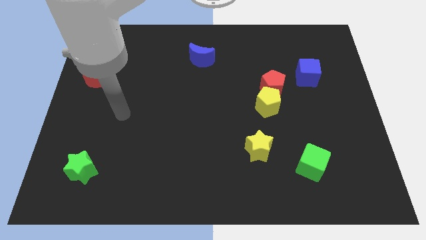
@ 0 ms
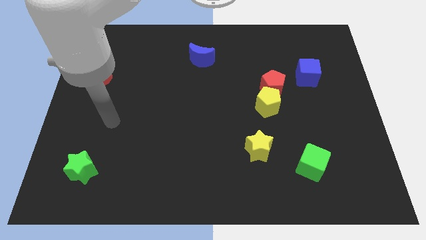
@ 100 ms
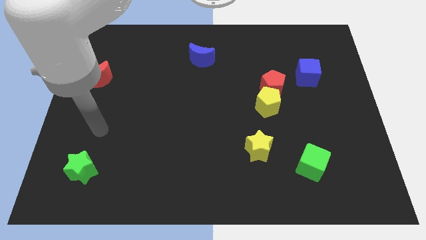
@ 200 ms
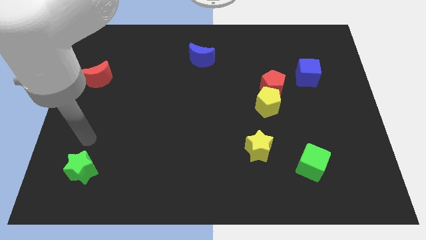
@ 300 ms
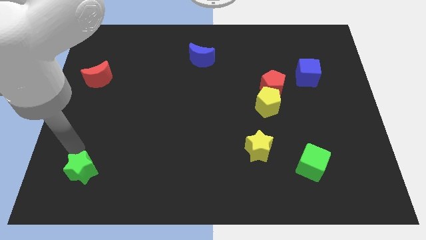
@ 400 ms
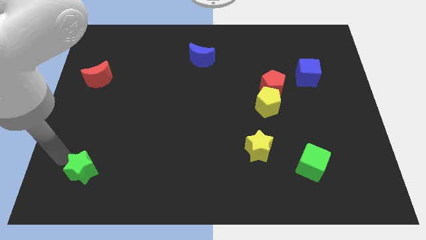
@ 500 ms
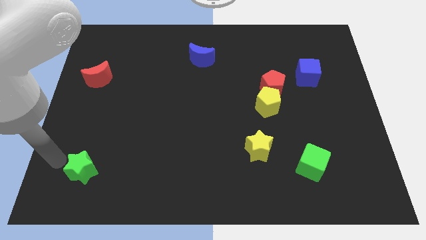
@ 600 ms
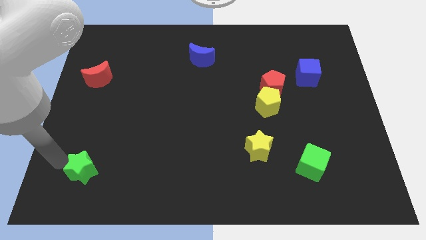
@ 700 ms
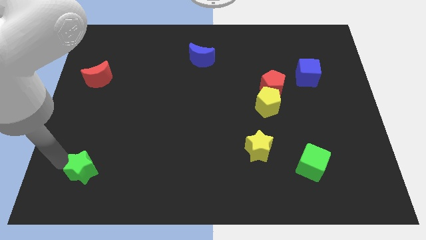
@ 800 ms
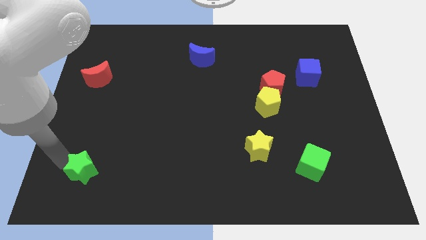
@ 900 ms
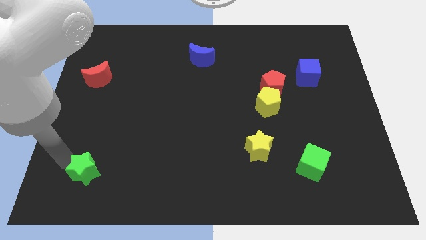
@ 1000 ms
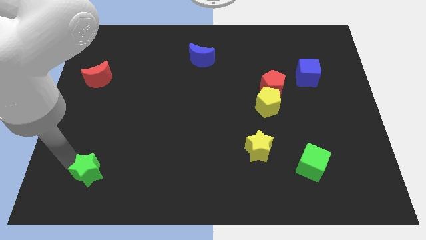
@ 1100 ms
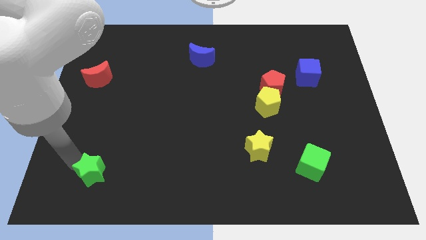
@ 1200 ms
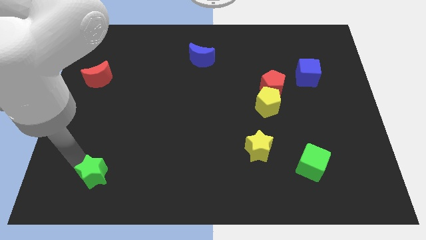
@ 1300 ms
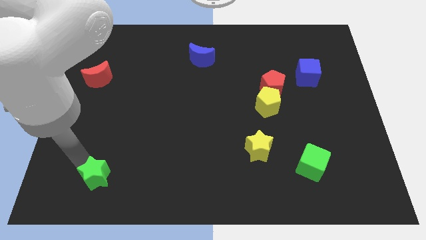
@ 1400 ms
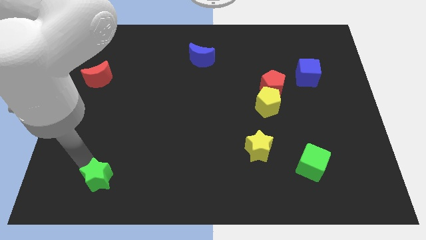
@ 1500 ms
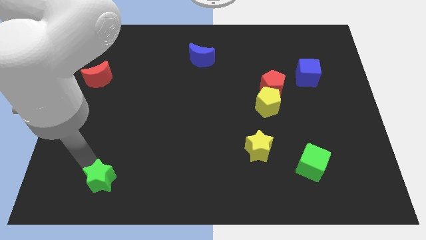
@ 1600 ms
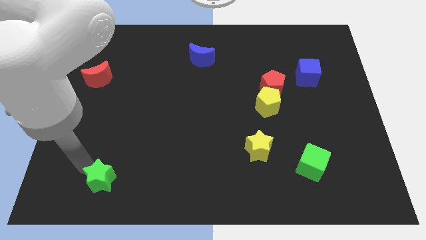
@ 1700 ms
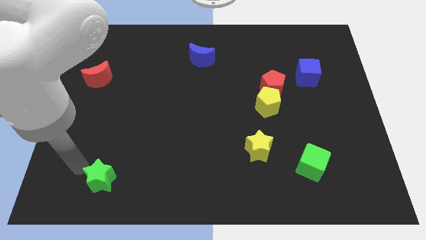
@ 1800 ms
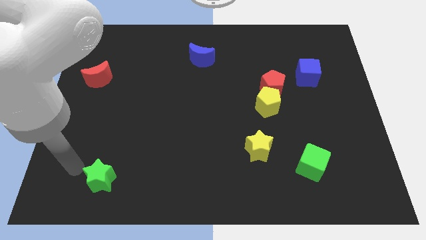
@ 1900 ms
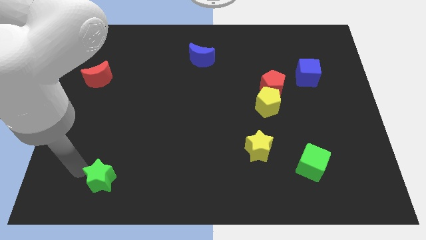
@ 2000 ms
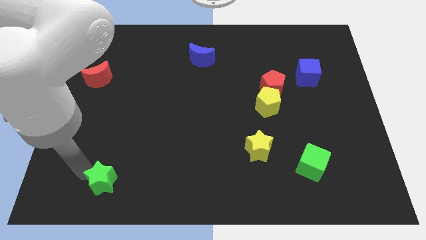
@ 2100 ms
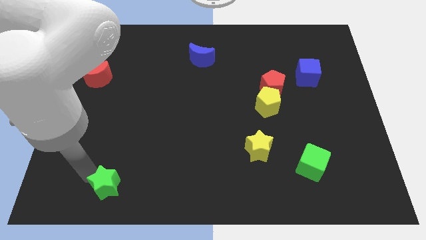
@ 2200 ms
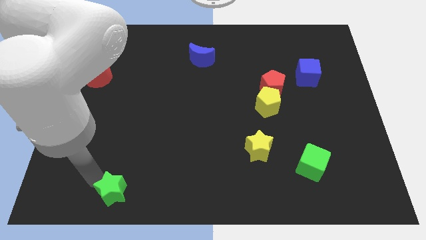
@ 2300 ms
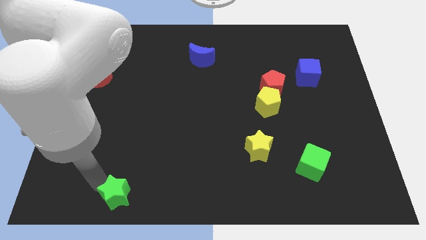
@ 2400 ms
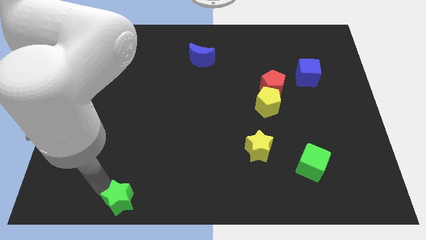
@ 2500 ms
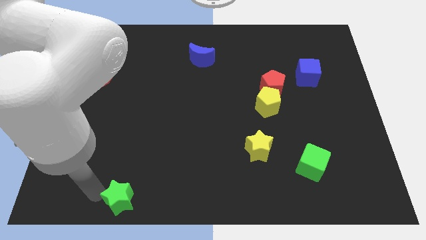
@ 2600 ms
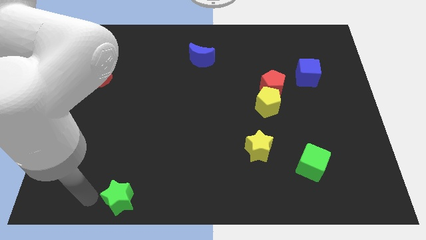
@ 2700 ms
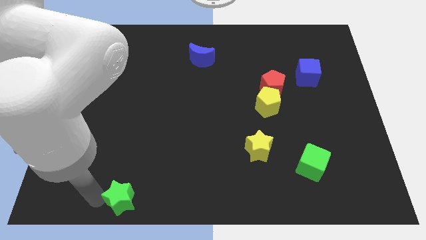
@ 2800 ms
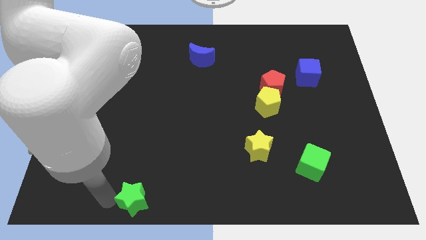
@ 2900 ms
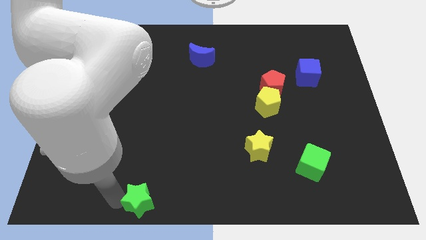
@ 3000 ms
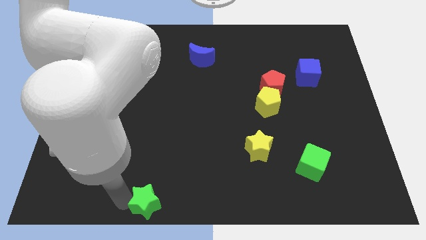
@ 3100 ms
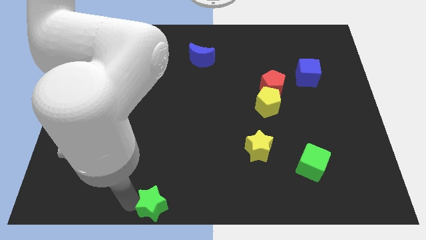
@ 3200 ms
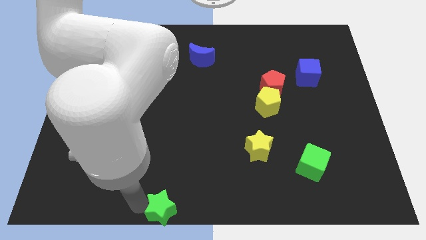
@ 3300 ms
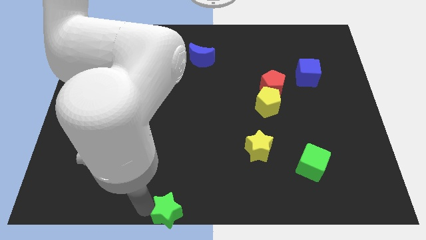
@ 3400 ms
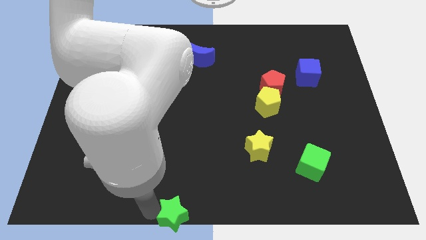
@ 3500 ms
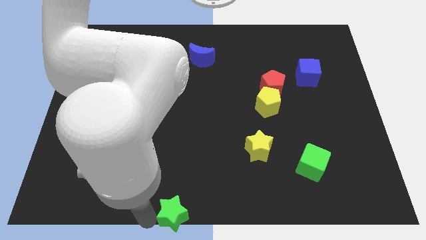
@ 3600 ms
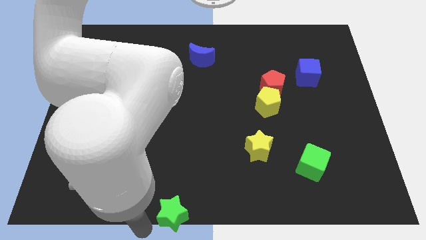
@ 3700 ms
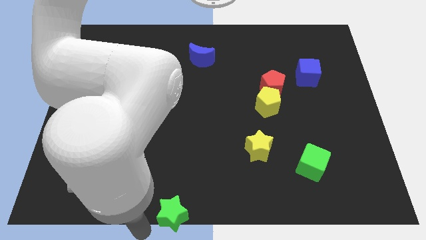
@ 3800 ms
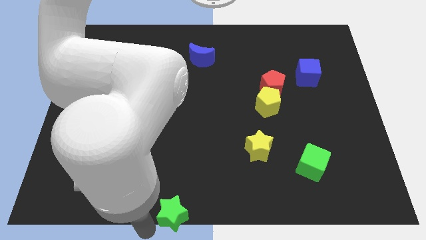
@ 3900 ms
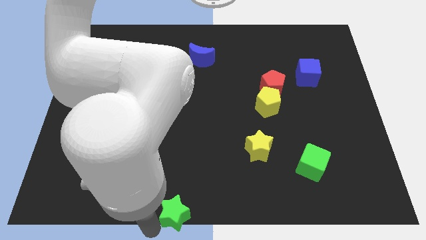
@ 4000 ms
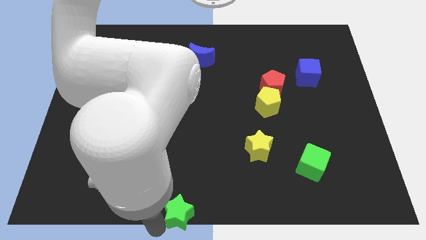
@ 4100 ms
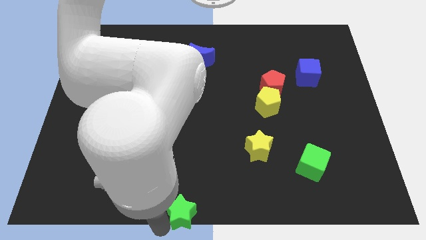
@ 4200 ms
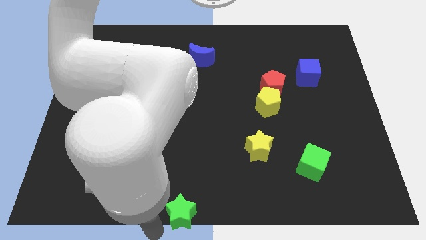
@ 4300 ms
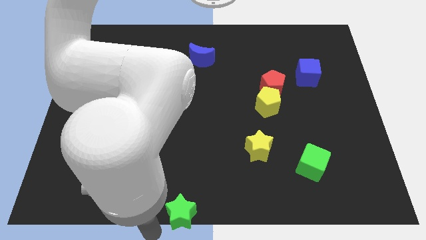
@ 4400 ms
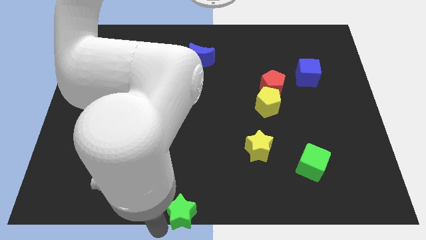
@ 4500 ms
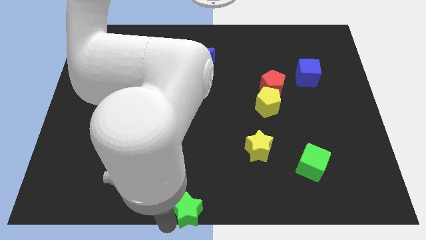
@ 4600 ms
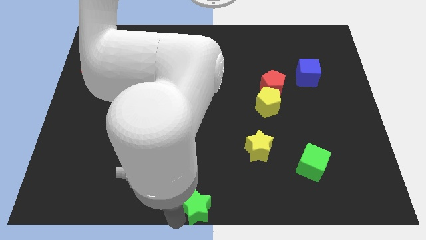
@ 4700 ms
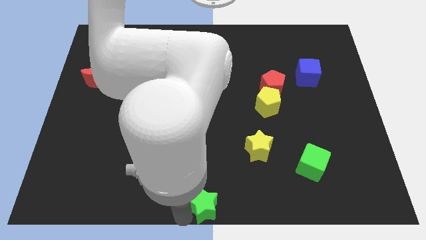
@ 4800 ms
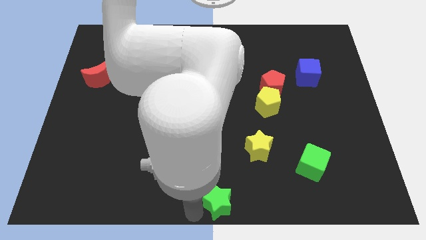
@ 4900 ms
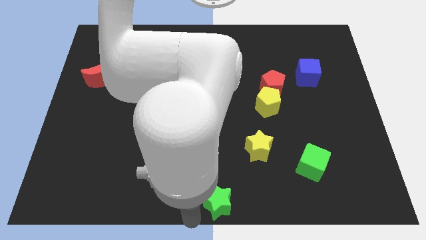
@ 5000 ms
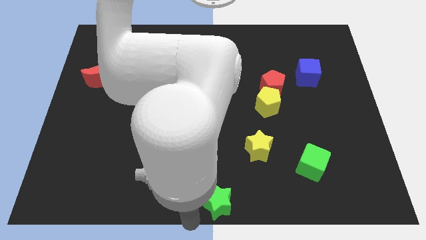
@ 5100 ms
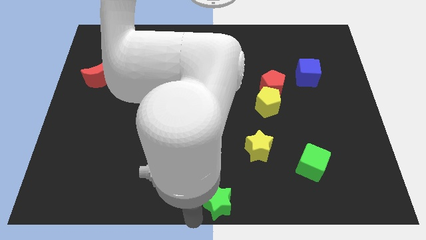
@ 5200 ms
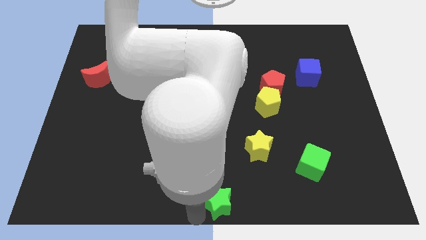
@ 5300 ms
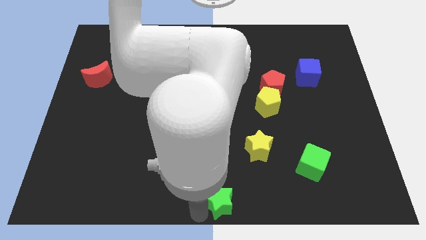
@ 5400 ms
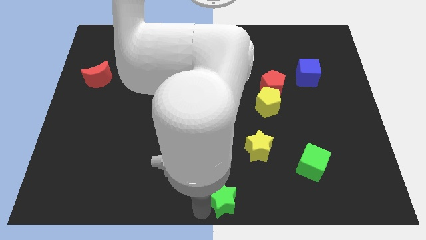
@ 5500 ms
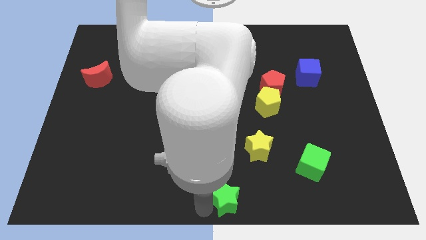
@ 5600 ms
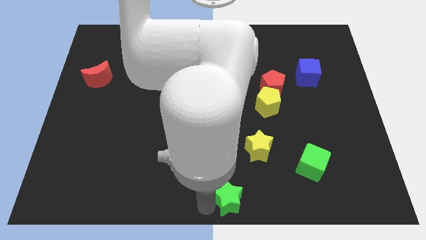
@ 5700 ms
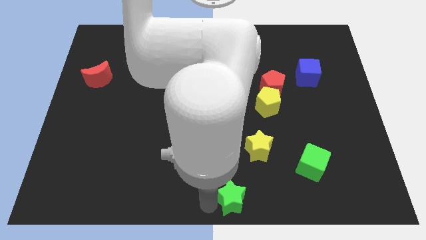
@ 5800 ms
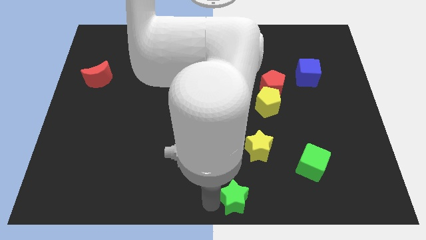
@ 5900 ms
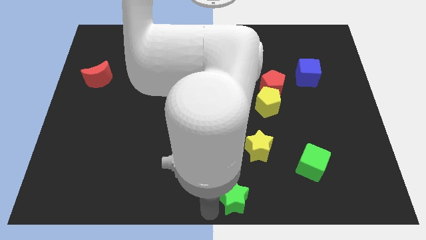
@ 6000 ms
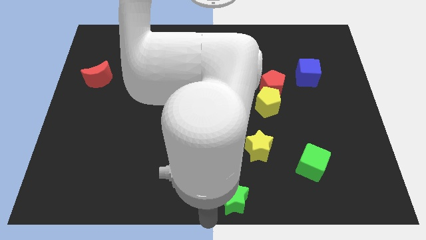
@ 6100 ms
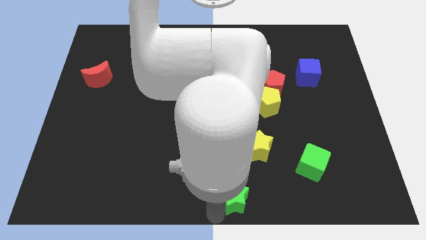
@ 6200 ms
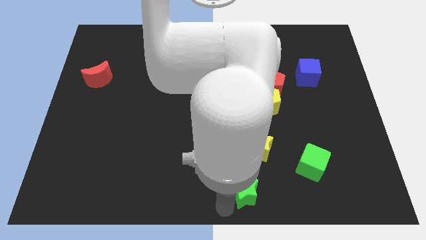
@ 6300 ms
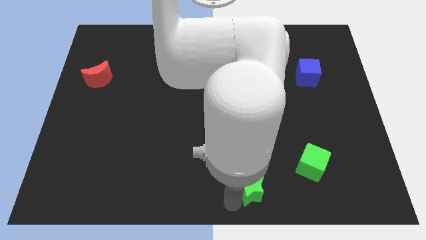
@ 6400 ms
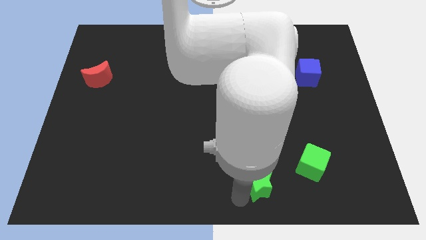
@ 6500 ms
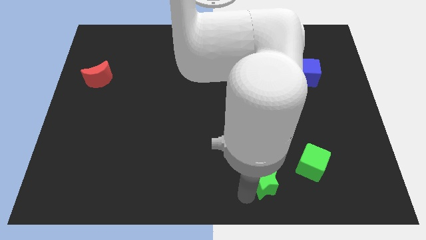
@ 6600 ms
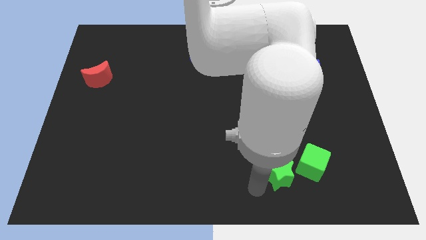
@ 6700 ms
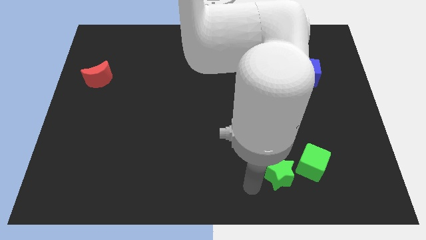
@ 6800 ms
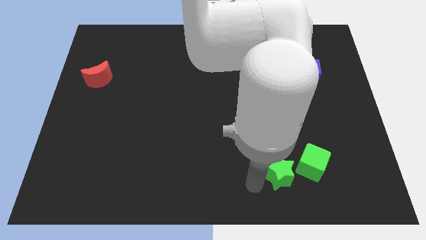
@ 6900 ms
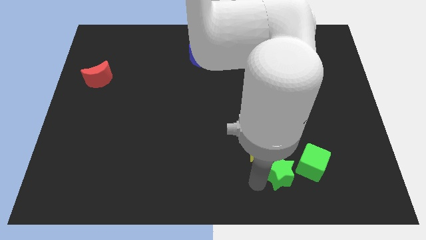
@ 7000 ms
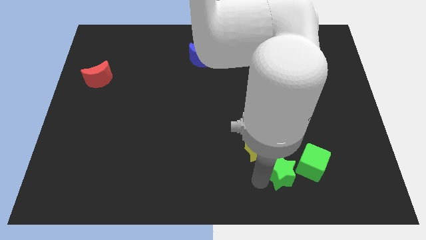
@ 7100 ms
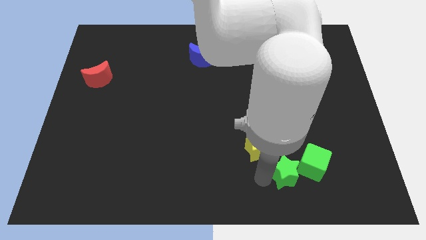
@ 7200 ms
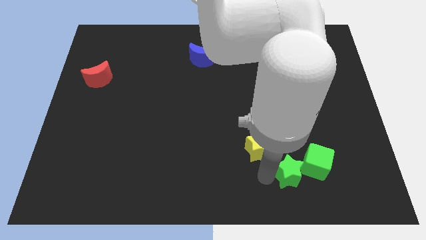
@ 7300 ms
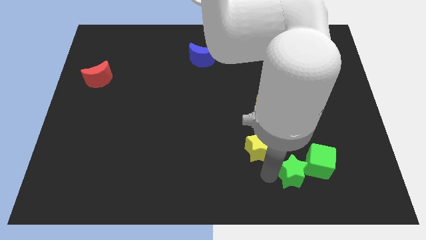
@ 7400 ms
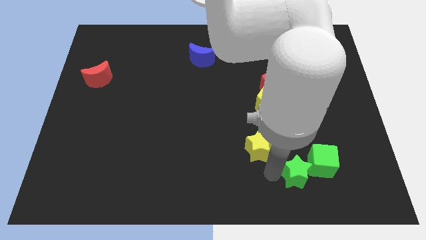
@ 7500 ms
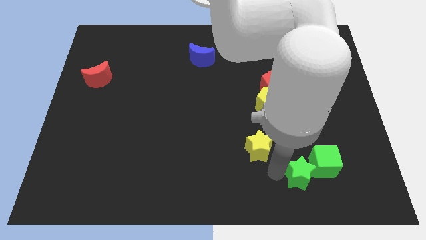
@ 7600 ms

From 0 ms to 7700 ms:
push the green star next to the green cube
